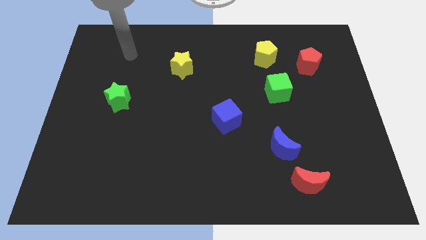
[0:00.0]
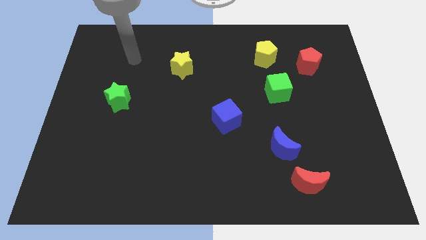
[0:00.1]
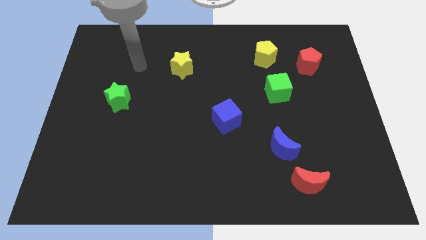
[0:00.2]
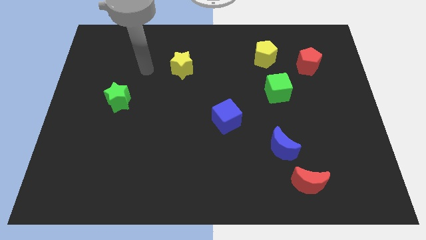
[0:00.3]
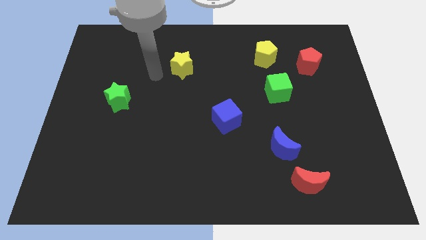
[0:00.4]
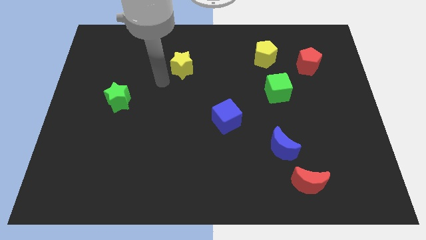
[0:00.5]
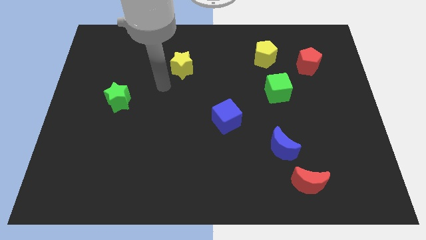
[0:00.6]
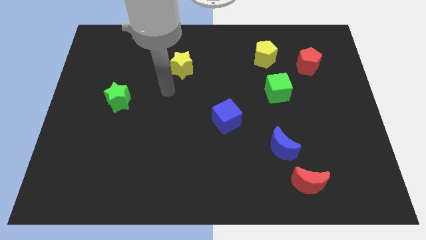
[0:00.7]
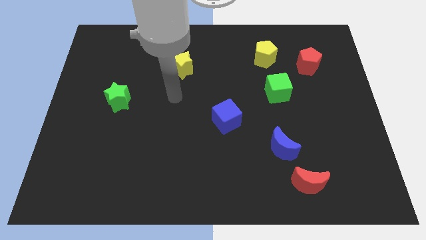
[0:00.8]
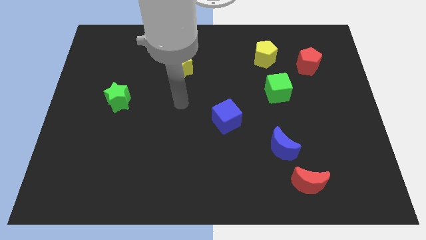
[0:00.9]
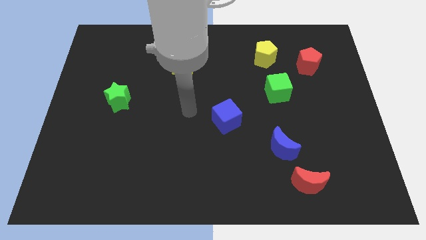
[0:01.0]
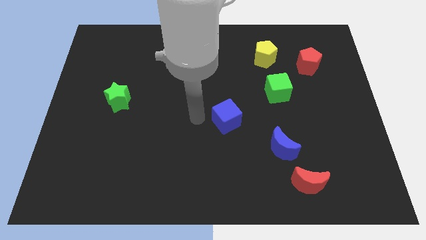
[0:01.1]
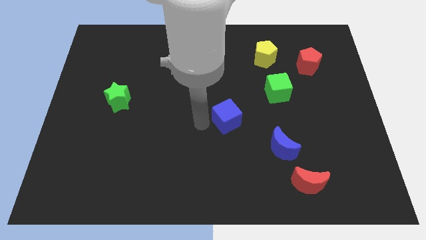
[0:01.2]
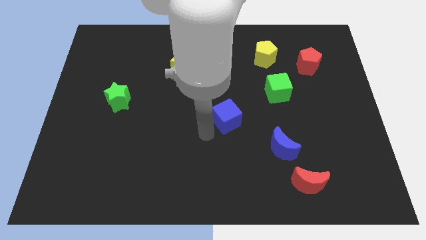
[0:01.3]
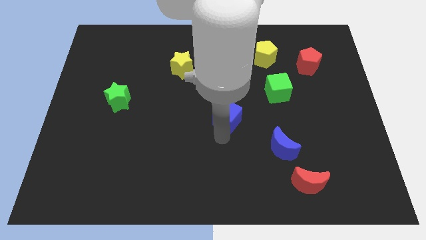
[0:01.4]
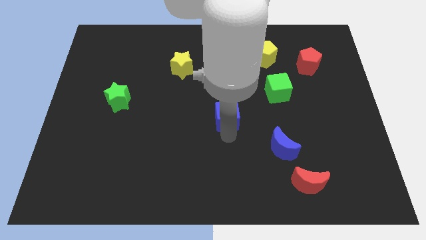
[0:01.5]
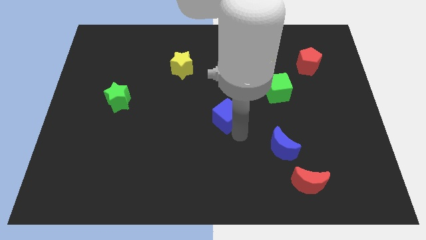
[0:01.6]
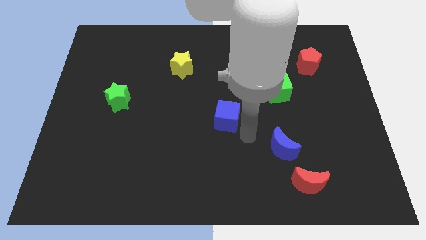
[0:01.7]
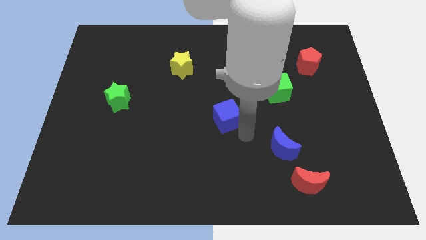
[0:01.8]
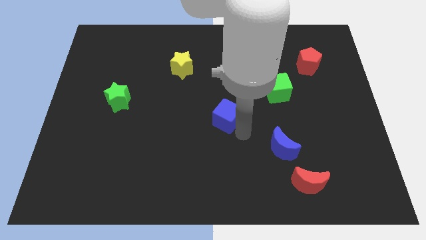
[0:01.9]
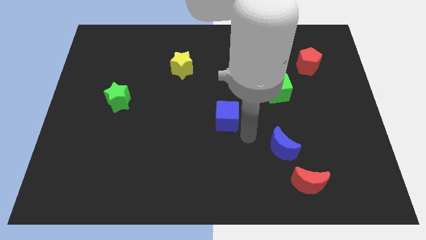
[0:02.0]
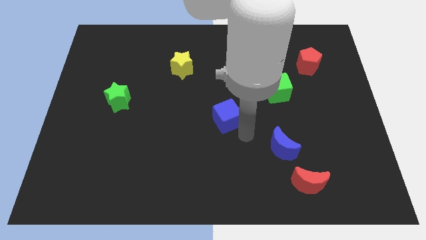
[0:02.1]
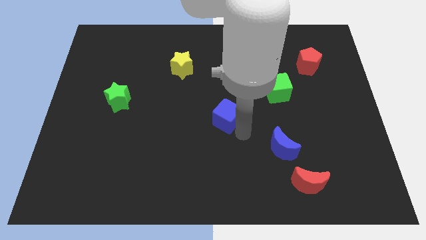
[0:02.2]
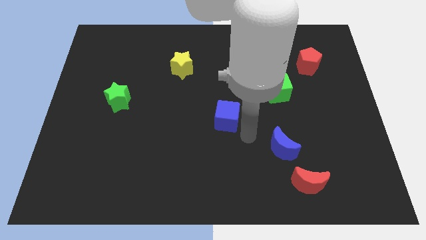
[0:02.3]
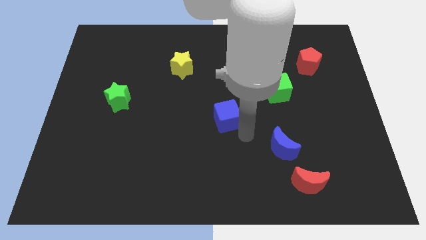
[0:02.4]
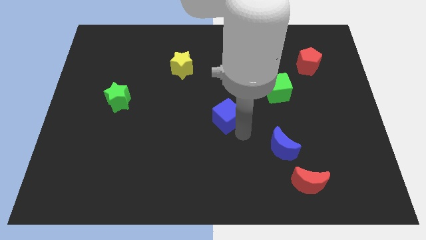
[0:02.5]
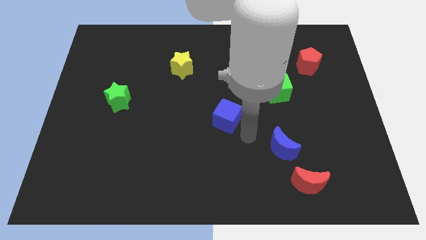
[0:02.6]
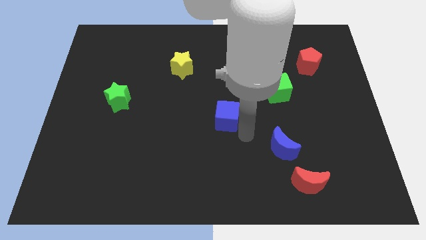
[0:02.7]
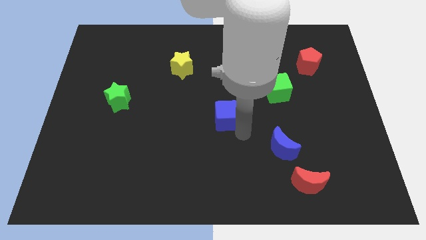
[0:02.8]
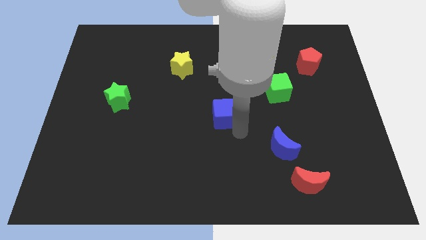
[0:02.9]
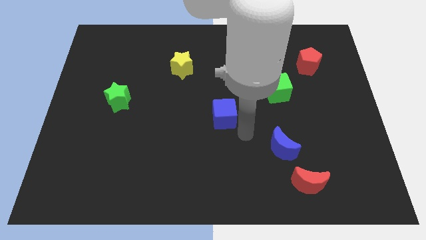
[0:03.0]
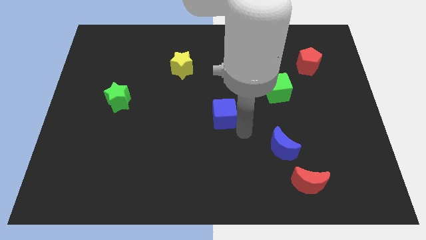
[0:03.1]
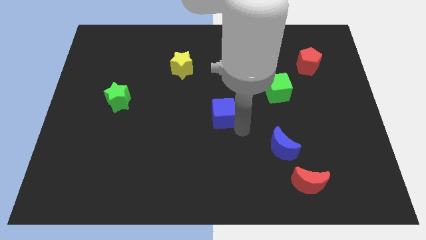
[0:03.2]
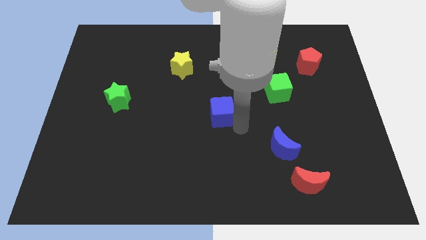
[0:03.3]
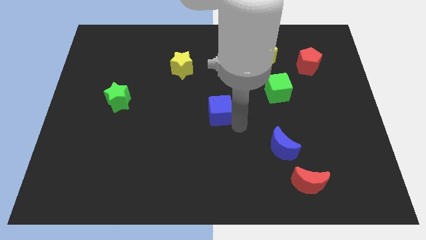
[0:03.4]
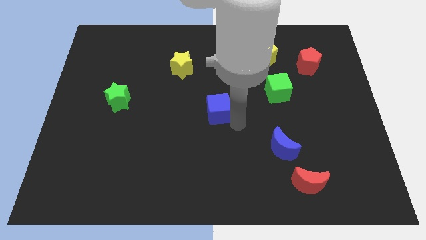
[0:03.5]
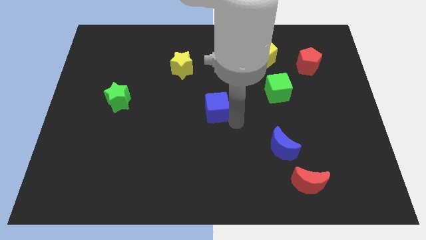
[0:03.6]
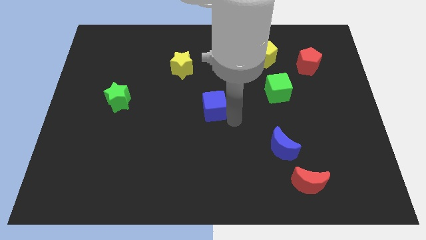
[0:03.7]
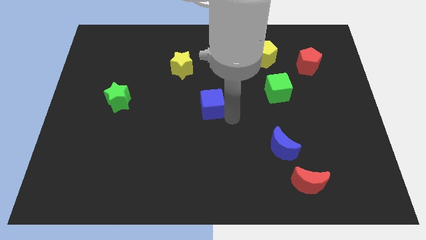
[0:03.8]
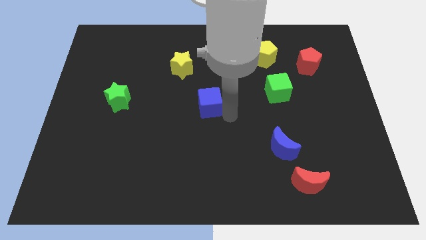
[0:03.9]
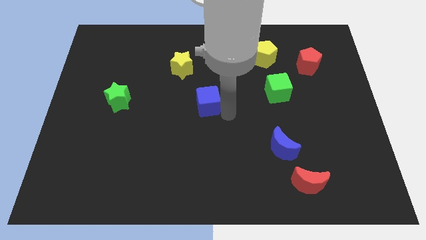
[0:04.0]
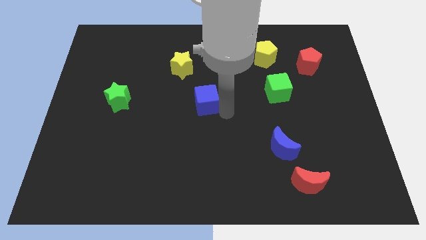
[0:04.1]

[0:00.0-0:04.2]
slightly move the blue cube diagonally upwards and left

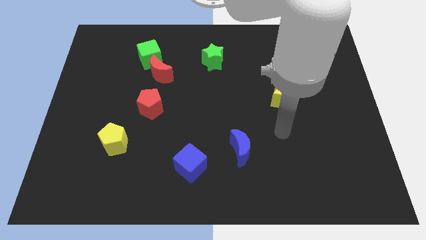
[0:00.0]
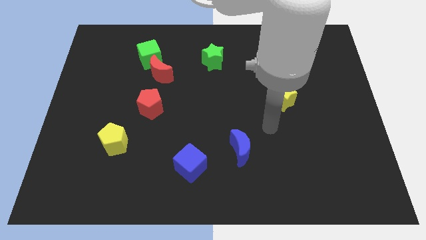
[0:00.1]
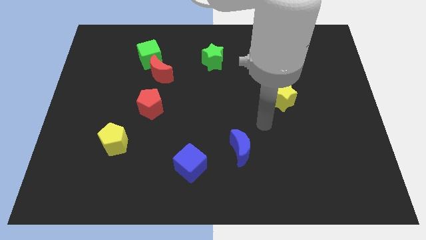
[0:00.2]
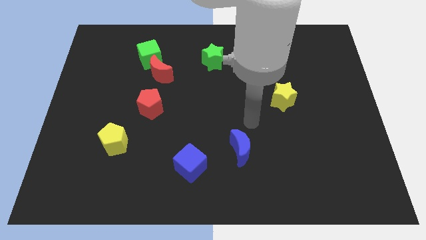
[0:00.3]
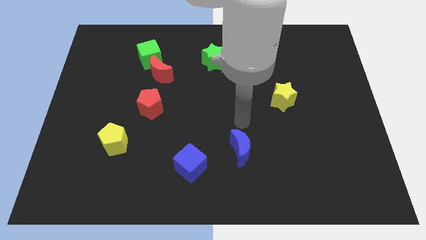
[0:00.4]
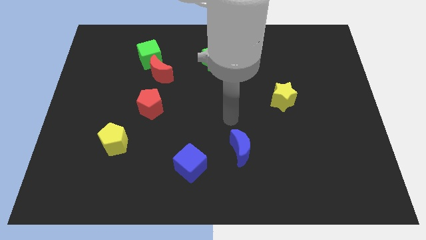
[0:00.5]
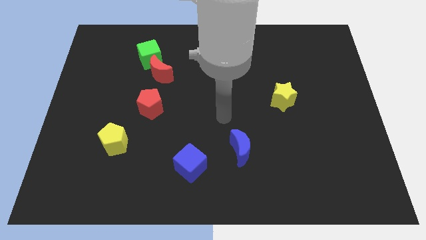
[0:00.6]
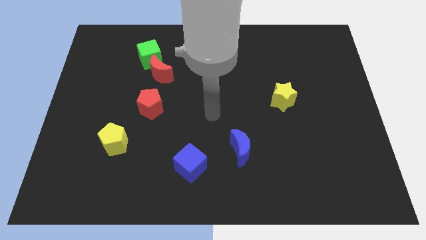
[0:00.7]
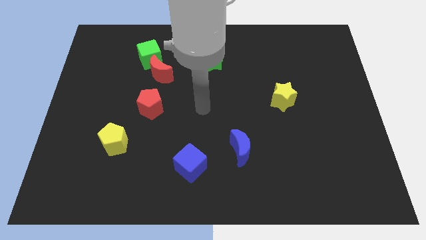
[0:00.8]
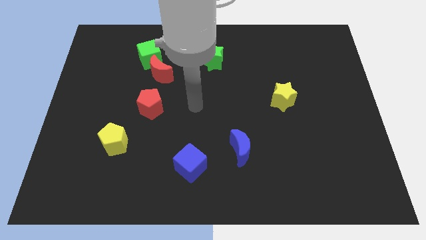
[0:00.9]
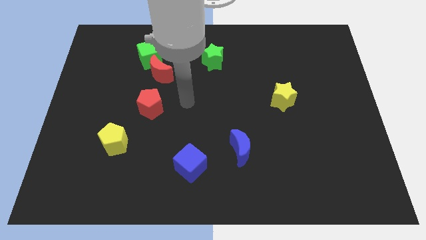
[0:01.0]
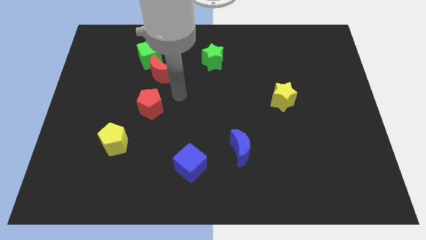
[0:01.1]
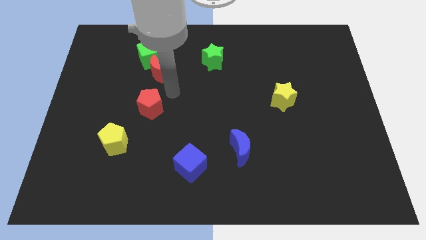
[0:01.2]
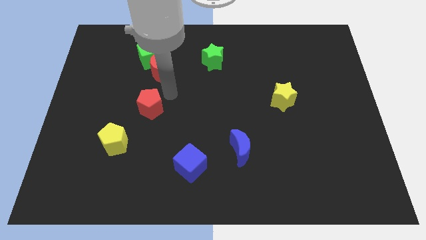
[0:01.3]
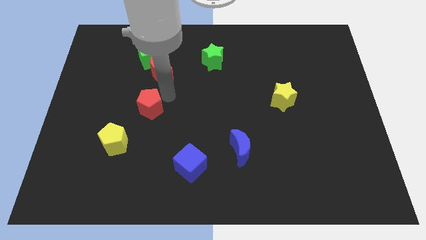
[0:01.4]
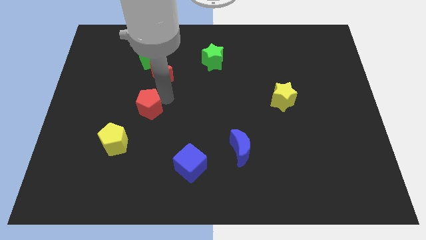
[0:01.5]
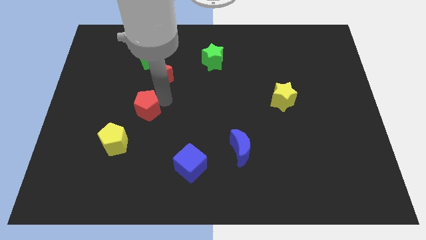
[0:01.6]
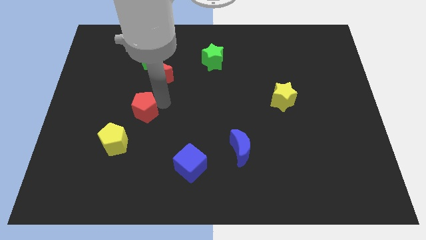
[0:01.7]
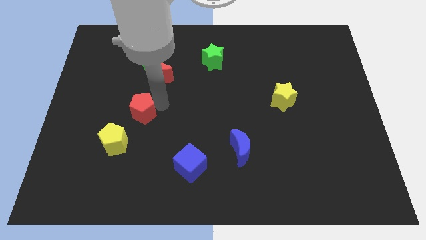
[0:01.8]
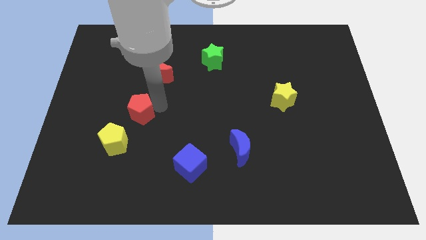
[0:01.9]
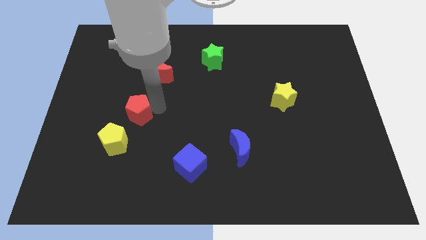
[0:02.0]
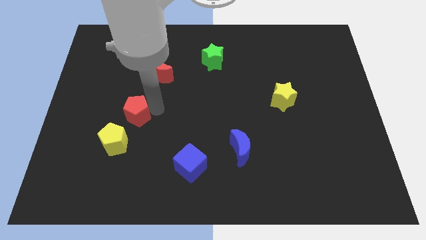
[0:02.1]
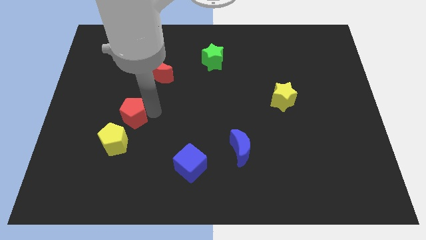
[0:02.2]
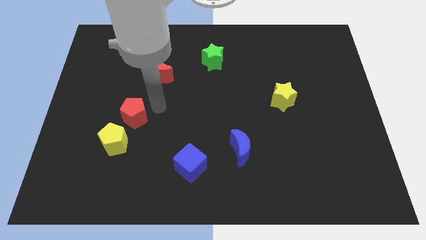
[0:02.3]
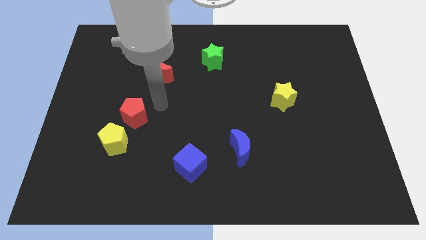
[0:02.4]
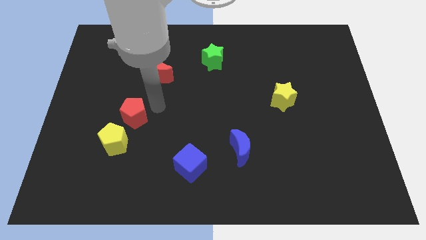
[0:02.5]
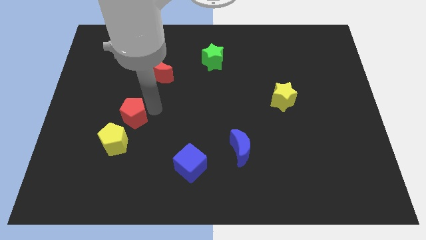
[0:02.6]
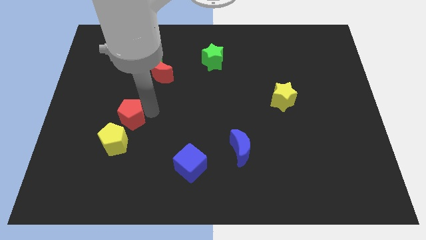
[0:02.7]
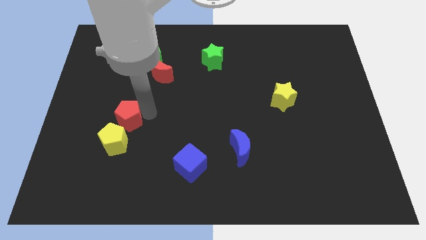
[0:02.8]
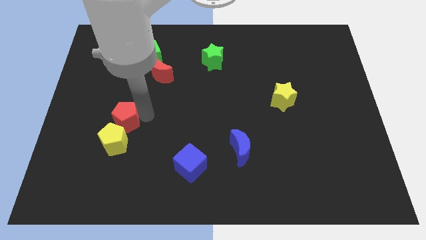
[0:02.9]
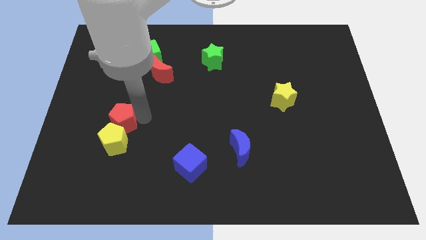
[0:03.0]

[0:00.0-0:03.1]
move the red pentagon a little diagonally down and left

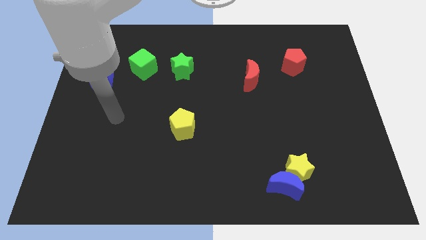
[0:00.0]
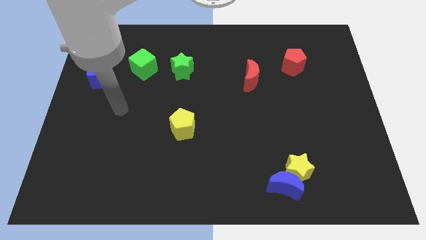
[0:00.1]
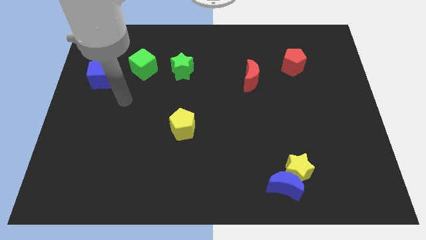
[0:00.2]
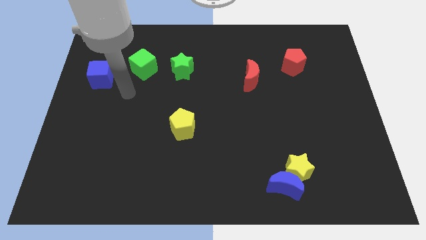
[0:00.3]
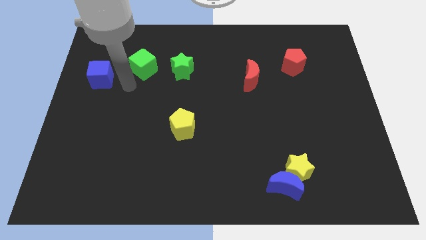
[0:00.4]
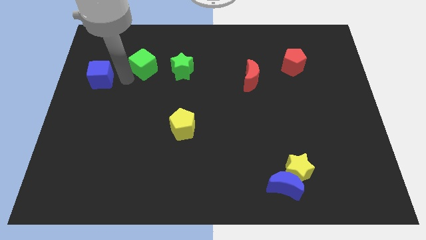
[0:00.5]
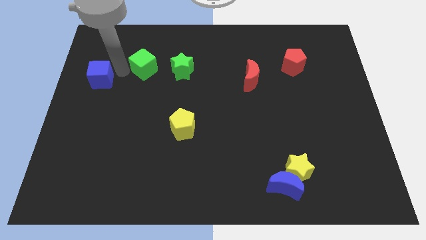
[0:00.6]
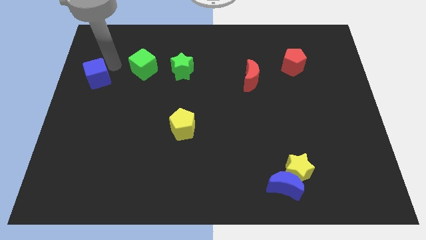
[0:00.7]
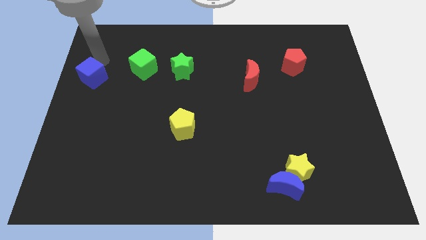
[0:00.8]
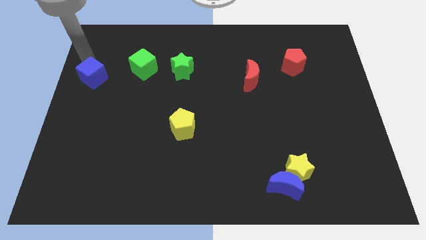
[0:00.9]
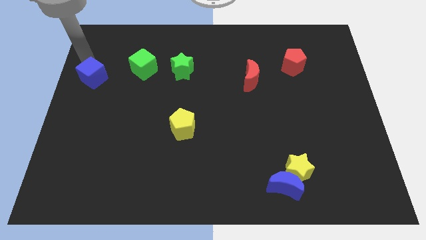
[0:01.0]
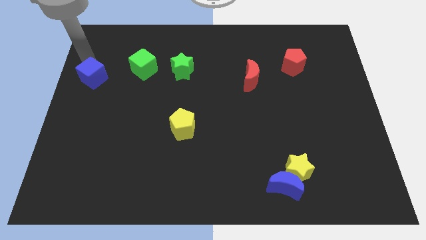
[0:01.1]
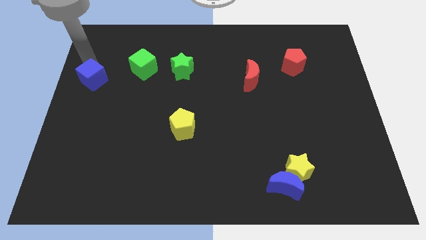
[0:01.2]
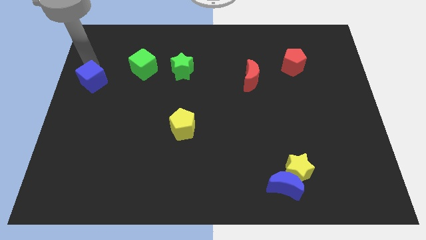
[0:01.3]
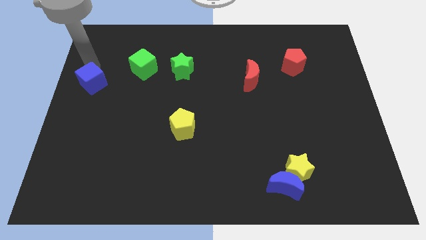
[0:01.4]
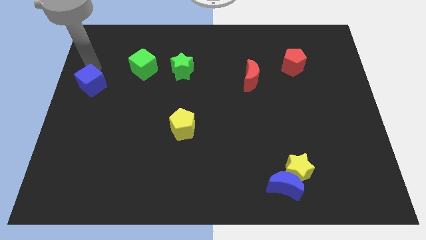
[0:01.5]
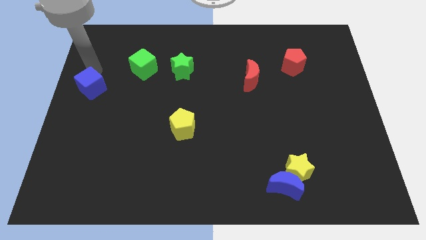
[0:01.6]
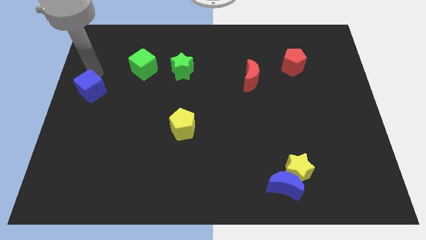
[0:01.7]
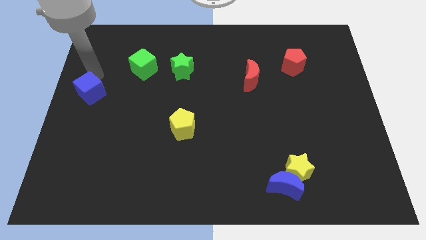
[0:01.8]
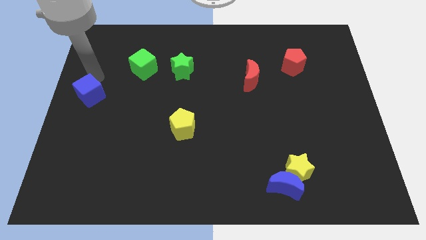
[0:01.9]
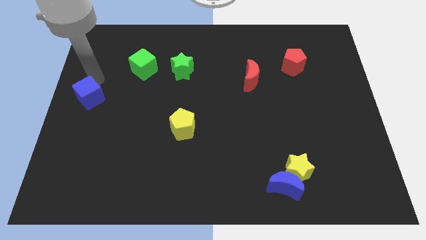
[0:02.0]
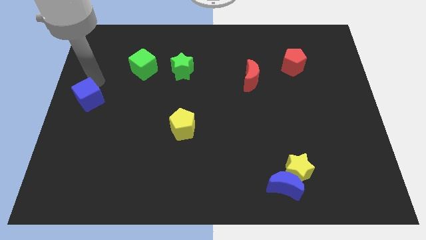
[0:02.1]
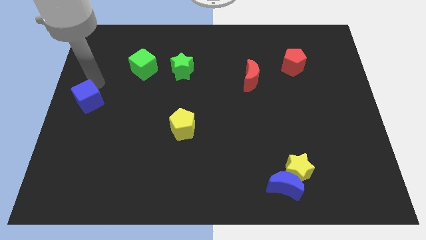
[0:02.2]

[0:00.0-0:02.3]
slightly slide the blue cube downwards
